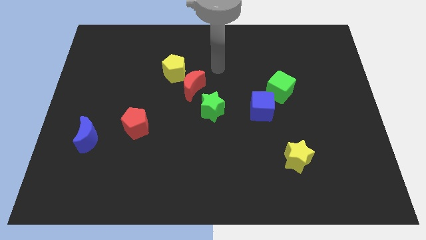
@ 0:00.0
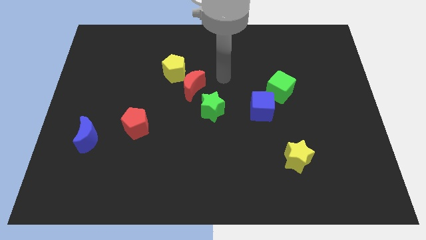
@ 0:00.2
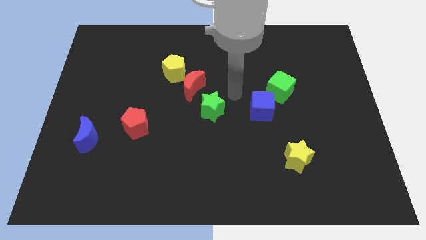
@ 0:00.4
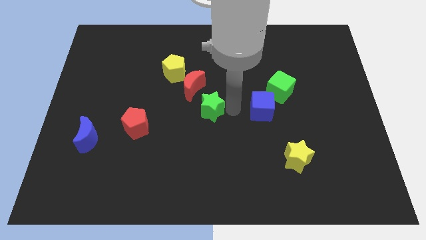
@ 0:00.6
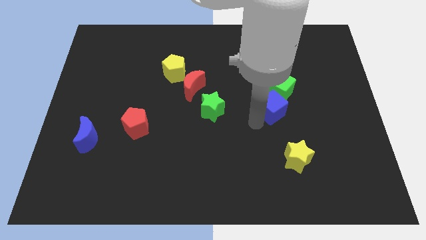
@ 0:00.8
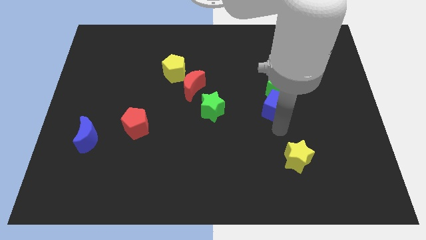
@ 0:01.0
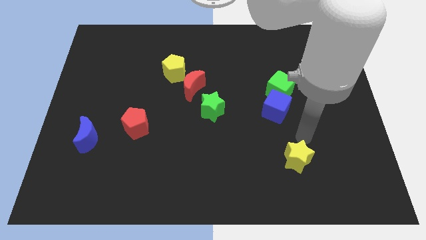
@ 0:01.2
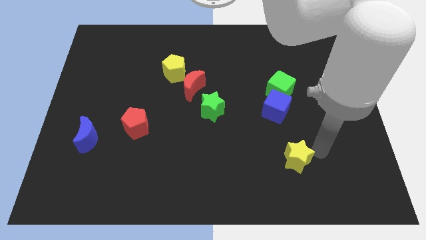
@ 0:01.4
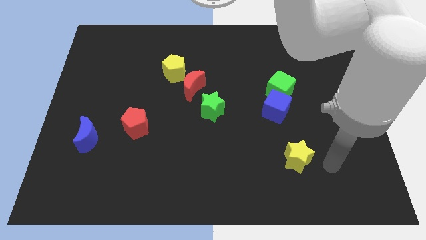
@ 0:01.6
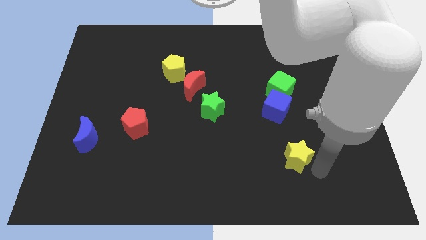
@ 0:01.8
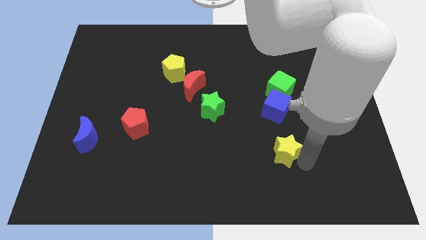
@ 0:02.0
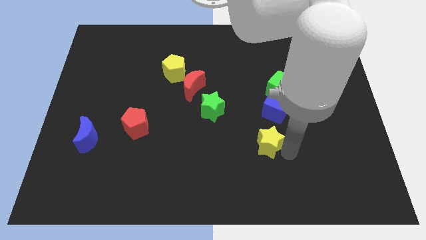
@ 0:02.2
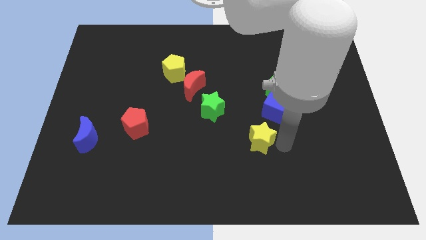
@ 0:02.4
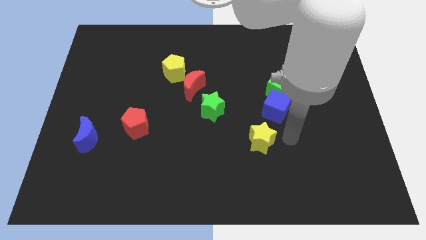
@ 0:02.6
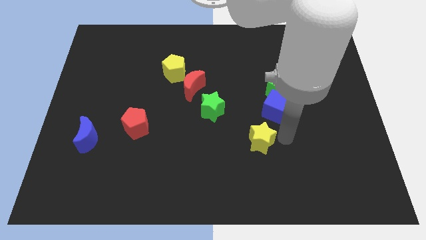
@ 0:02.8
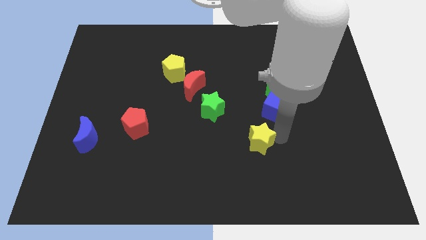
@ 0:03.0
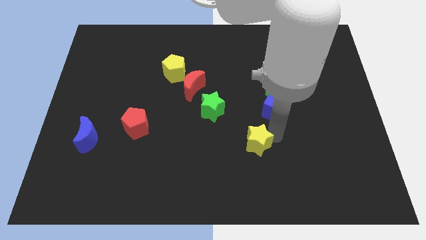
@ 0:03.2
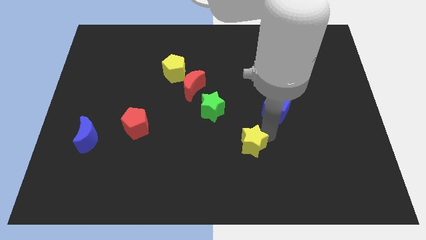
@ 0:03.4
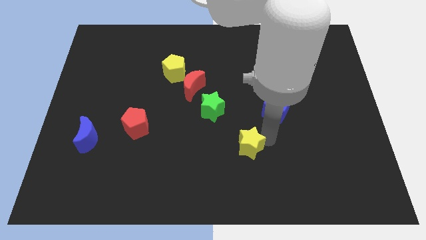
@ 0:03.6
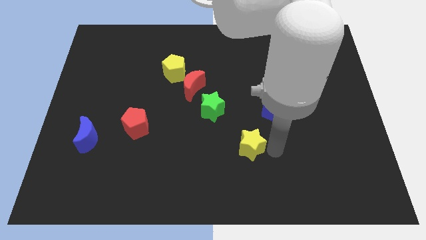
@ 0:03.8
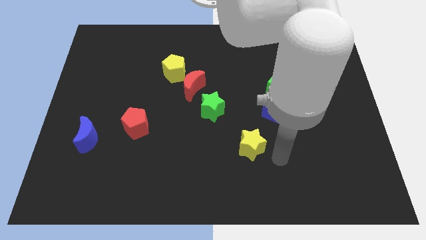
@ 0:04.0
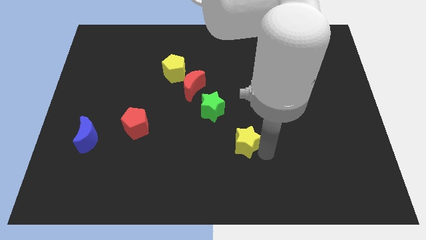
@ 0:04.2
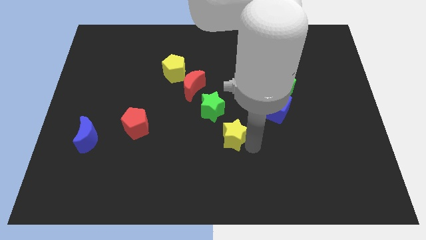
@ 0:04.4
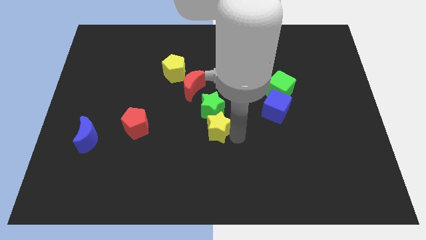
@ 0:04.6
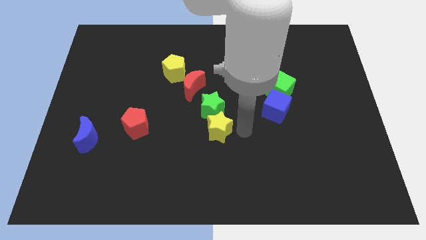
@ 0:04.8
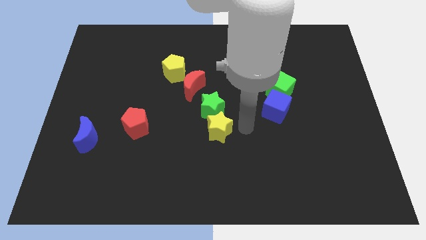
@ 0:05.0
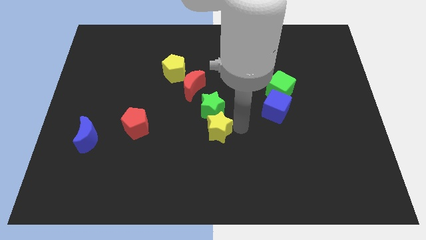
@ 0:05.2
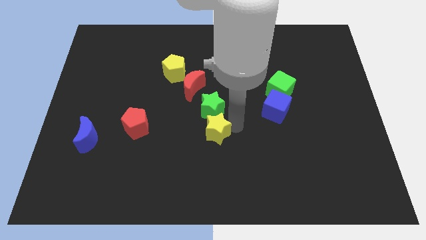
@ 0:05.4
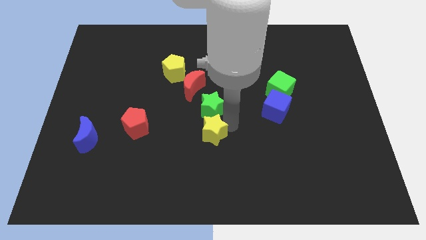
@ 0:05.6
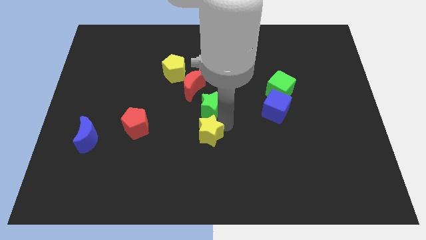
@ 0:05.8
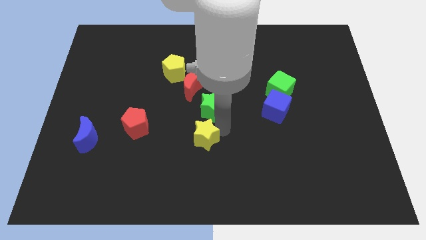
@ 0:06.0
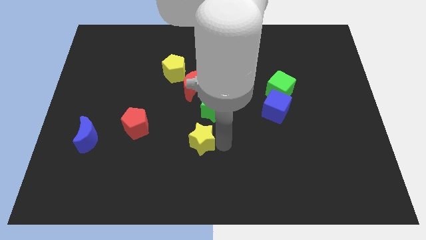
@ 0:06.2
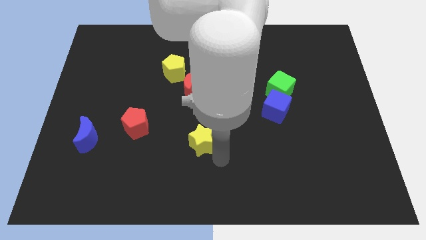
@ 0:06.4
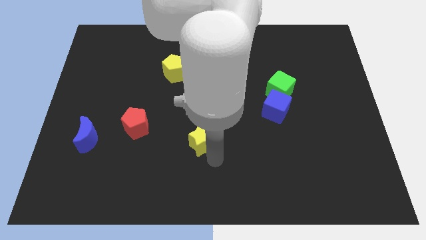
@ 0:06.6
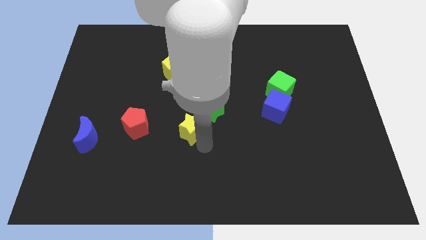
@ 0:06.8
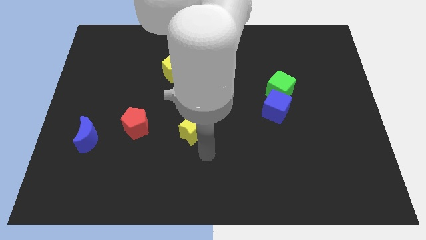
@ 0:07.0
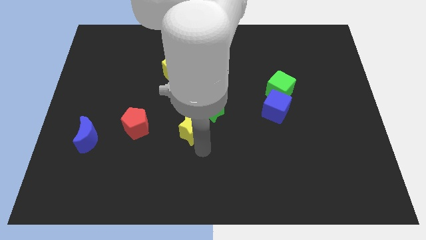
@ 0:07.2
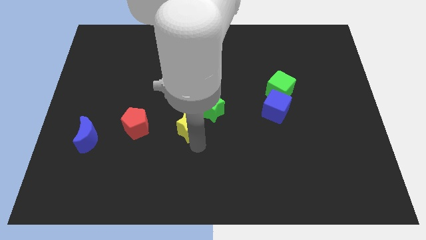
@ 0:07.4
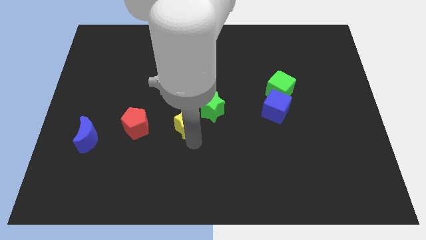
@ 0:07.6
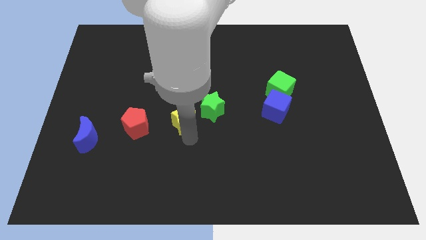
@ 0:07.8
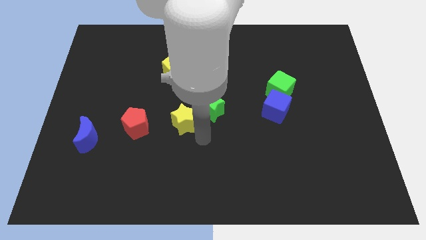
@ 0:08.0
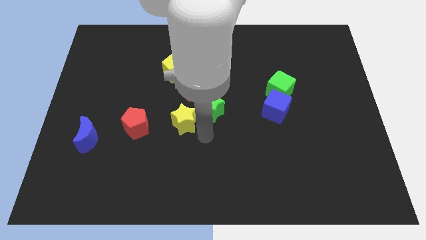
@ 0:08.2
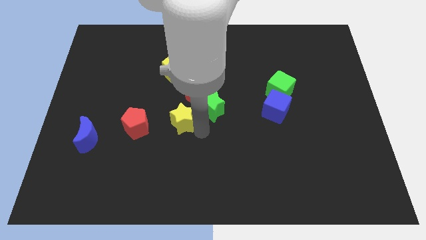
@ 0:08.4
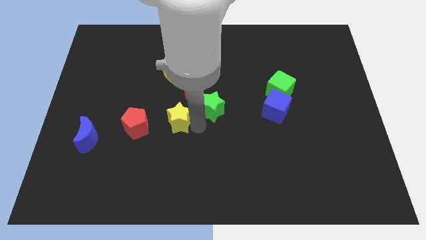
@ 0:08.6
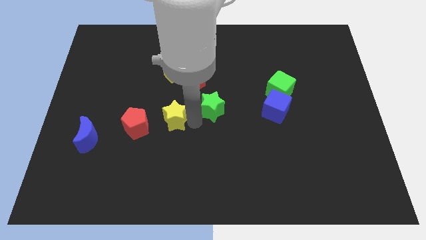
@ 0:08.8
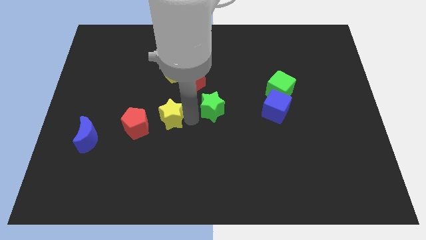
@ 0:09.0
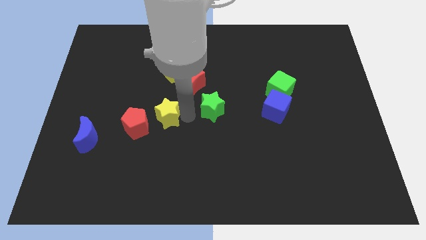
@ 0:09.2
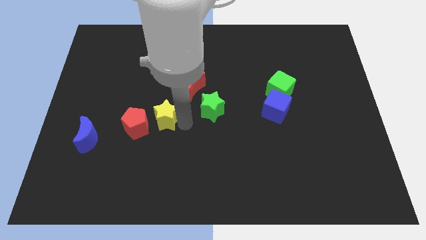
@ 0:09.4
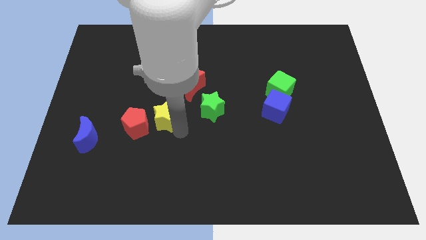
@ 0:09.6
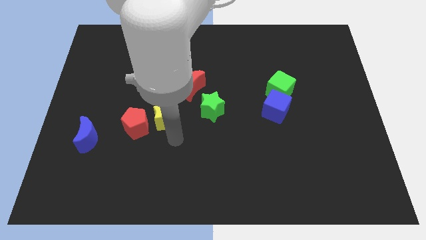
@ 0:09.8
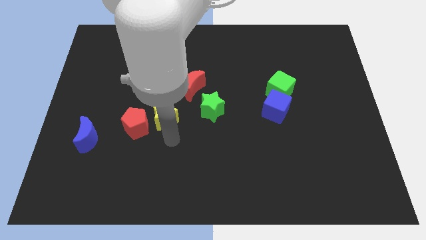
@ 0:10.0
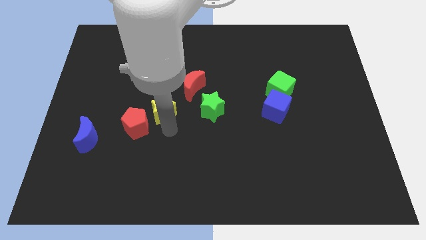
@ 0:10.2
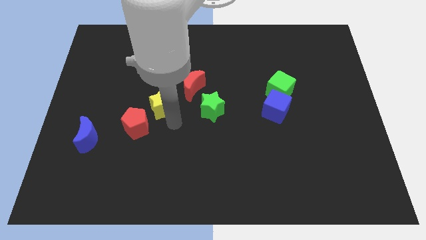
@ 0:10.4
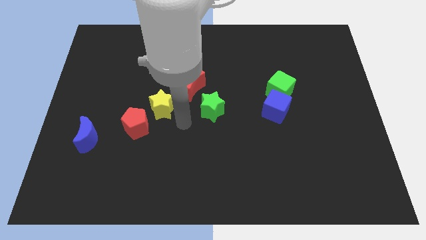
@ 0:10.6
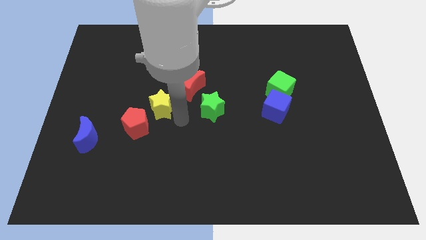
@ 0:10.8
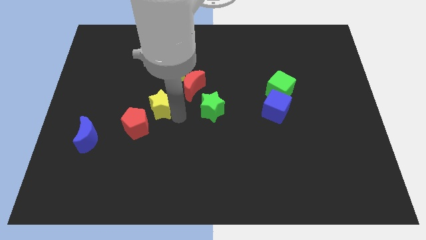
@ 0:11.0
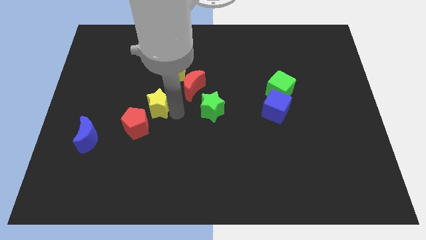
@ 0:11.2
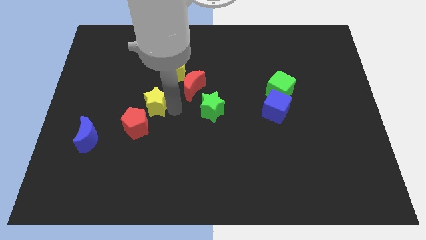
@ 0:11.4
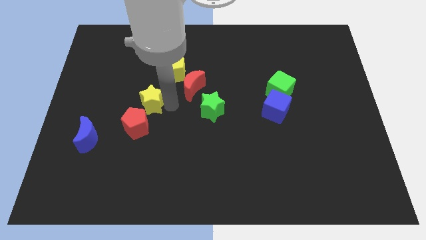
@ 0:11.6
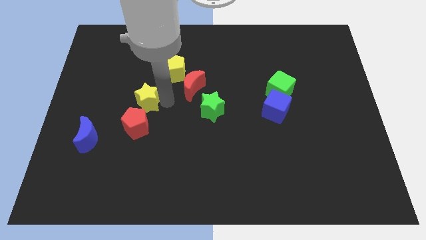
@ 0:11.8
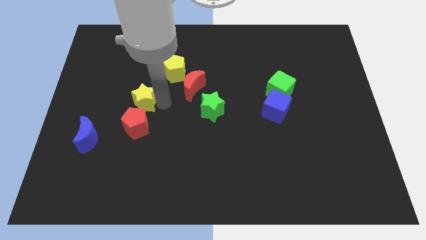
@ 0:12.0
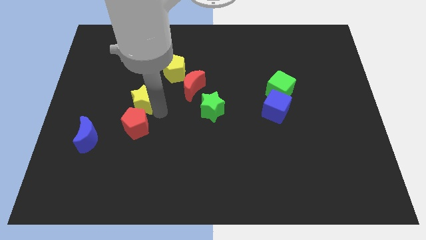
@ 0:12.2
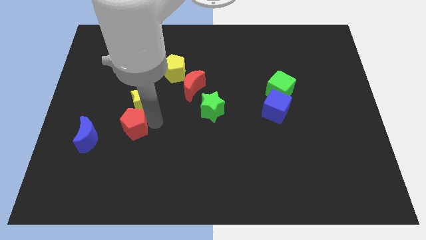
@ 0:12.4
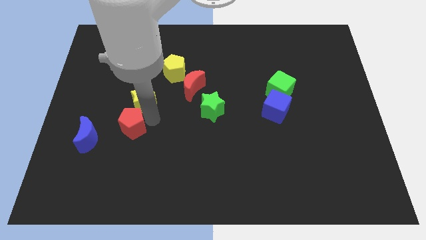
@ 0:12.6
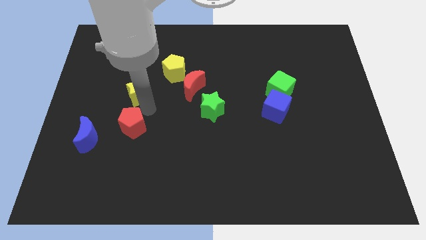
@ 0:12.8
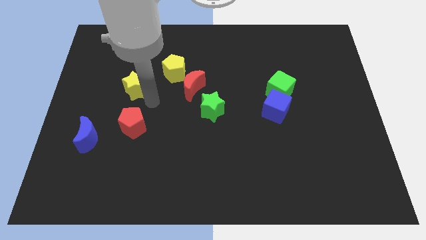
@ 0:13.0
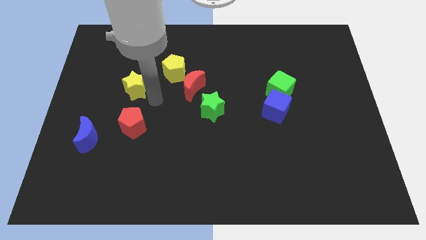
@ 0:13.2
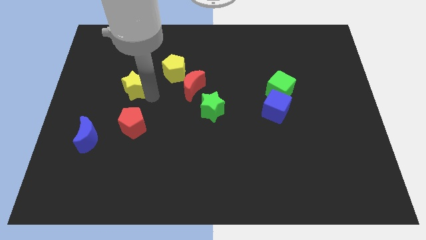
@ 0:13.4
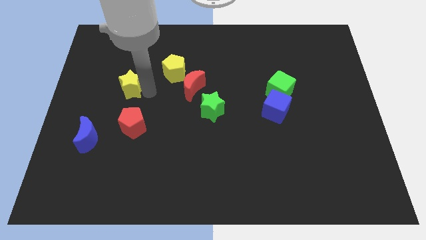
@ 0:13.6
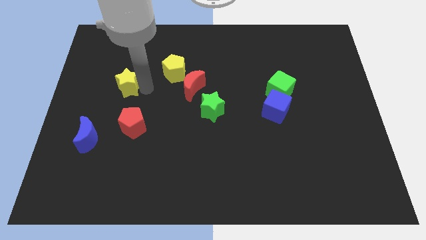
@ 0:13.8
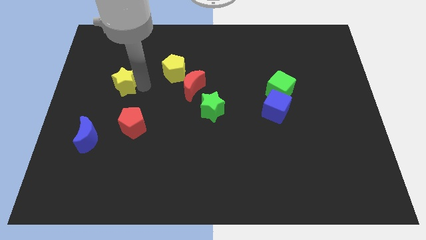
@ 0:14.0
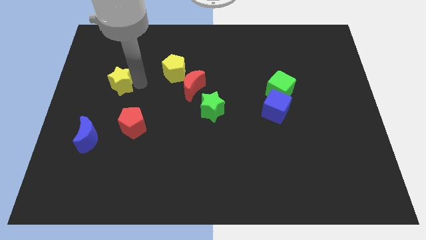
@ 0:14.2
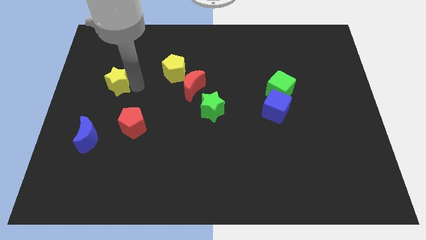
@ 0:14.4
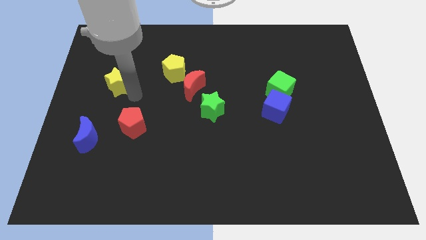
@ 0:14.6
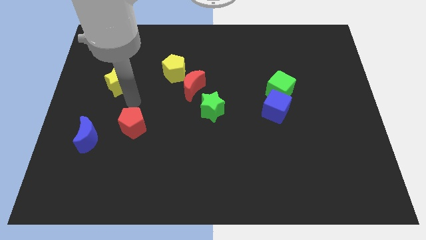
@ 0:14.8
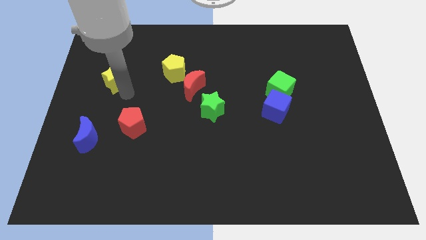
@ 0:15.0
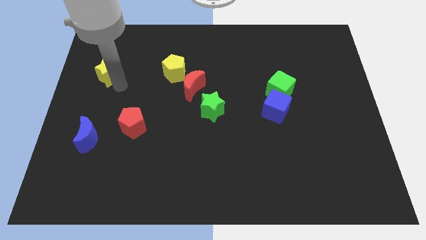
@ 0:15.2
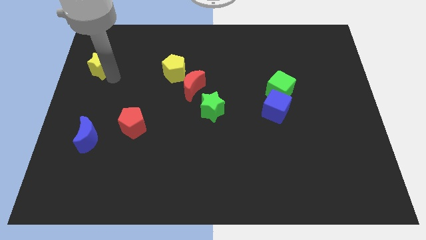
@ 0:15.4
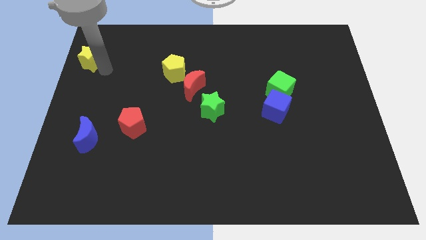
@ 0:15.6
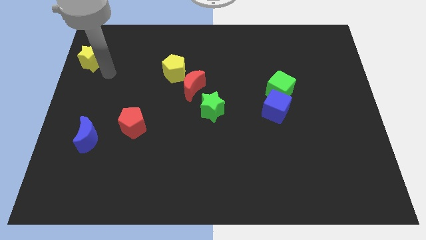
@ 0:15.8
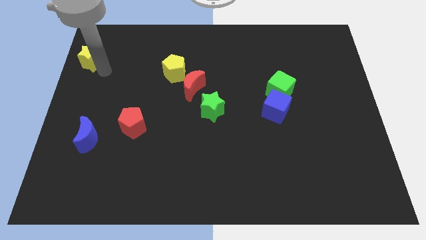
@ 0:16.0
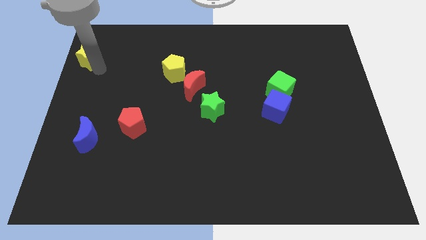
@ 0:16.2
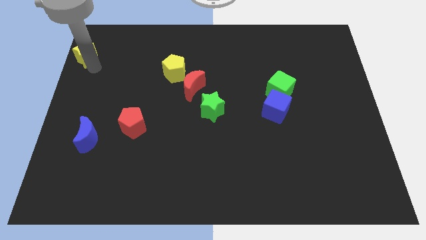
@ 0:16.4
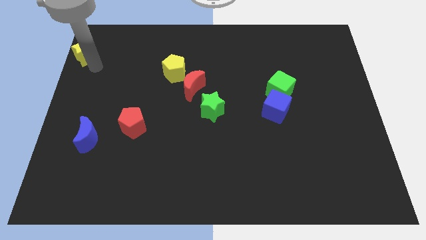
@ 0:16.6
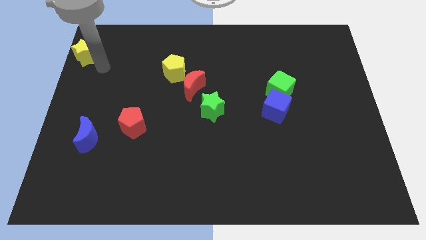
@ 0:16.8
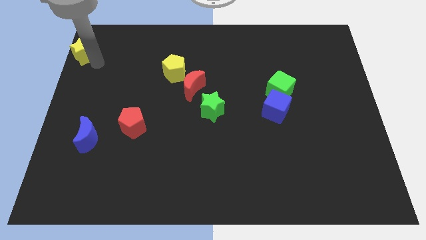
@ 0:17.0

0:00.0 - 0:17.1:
slide the yellow star to the top left of the board
